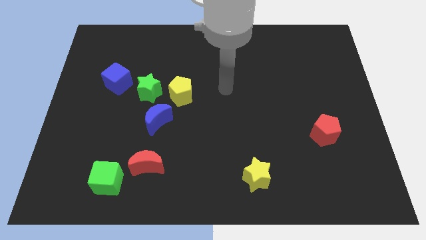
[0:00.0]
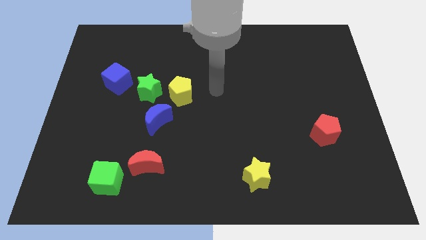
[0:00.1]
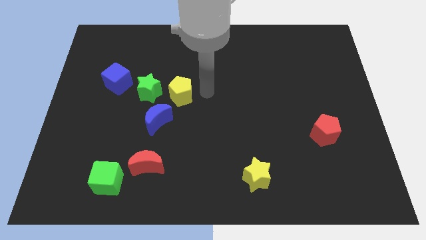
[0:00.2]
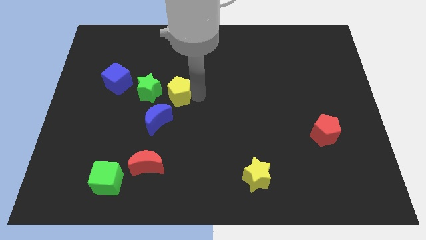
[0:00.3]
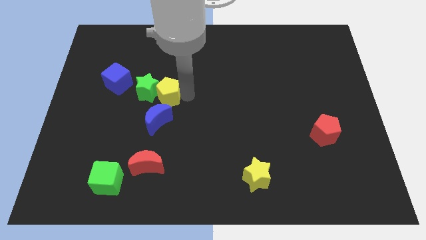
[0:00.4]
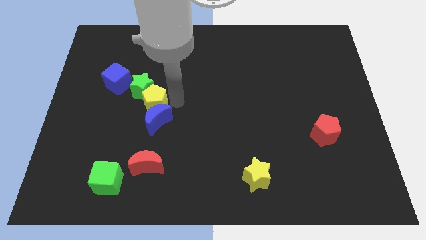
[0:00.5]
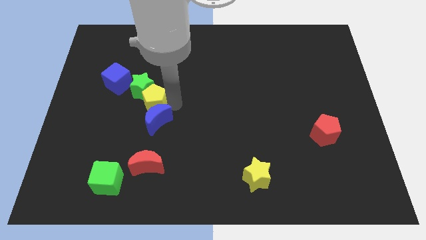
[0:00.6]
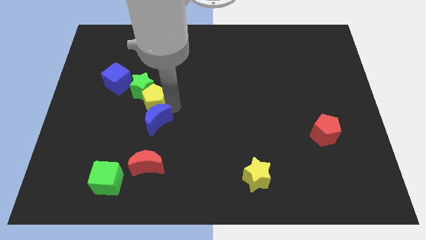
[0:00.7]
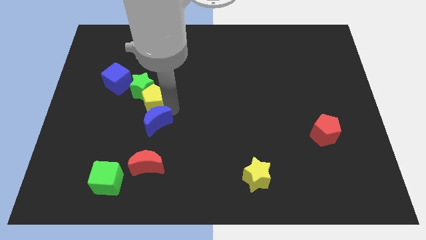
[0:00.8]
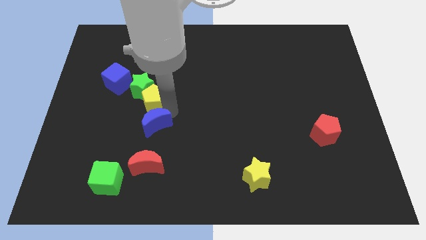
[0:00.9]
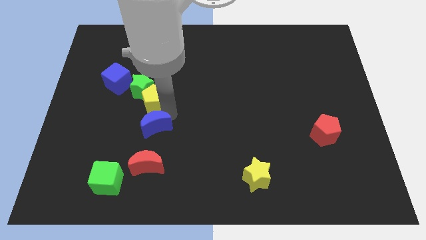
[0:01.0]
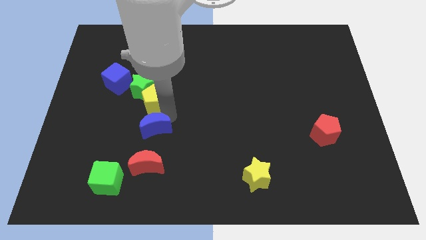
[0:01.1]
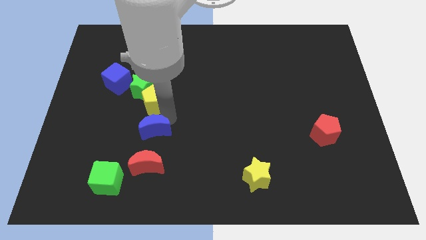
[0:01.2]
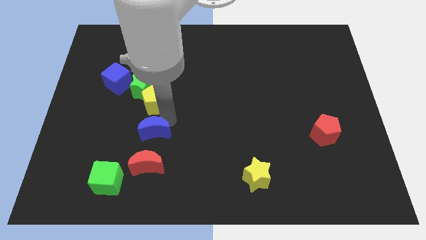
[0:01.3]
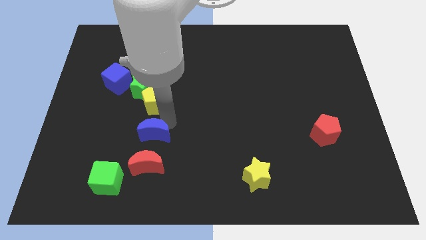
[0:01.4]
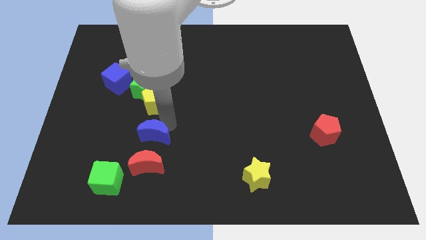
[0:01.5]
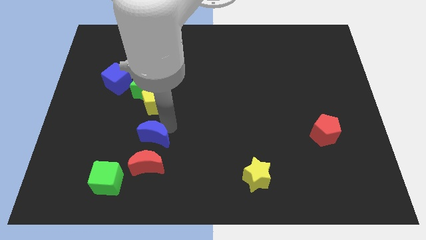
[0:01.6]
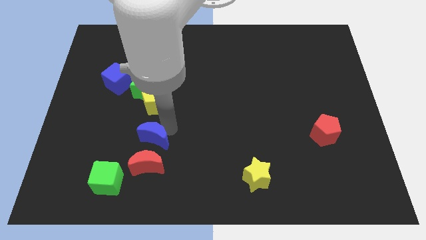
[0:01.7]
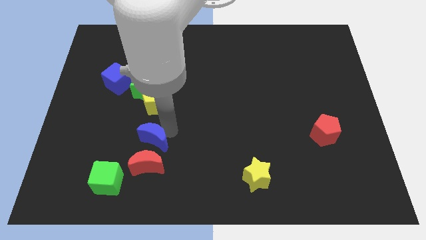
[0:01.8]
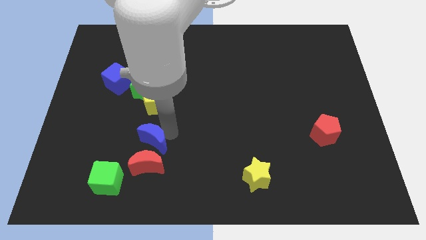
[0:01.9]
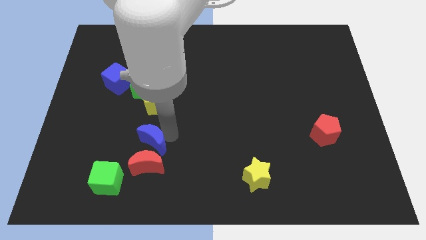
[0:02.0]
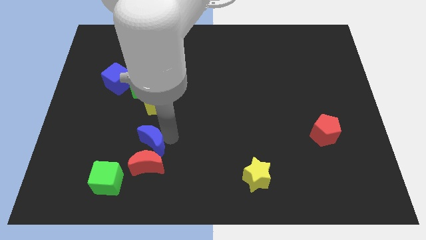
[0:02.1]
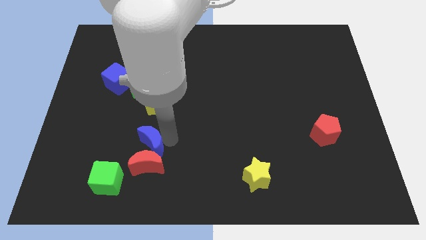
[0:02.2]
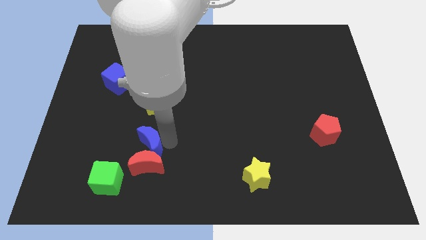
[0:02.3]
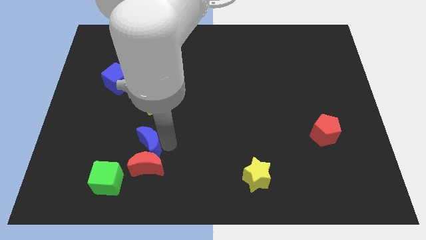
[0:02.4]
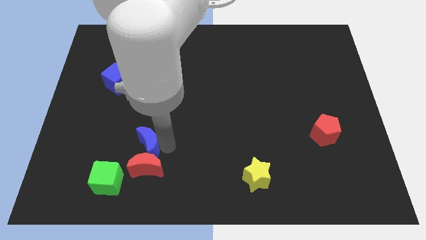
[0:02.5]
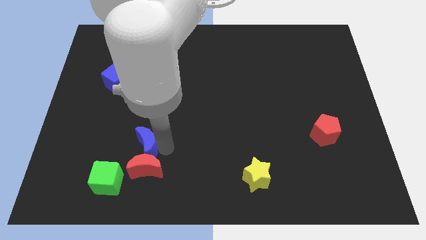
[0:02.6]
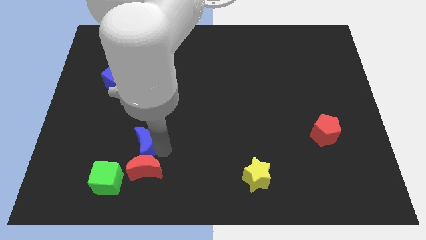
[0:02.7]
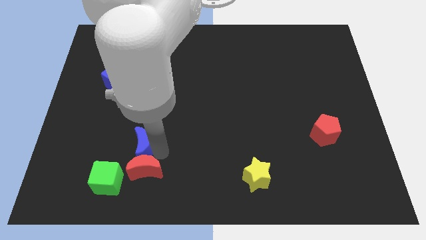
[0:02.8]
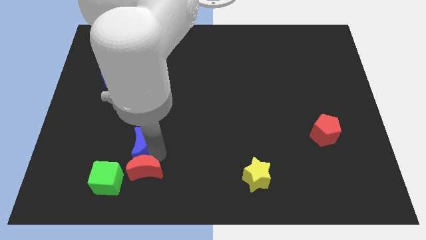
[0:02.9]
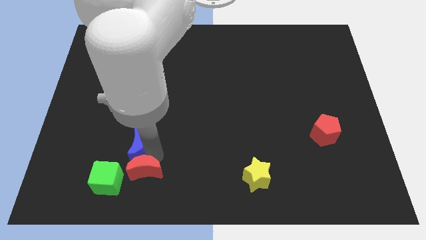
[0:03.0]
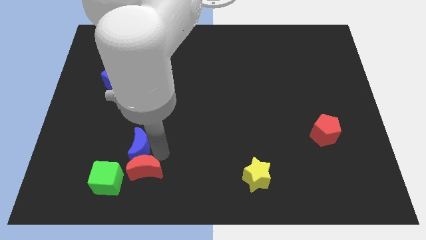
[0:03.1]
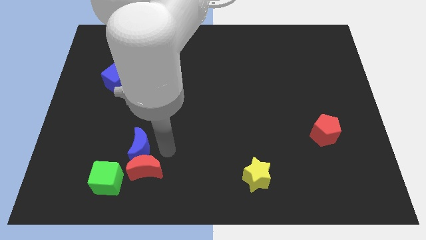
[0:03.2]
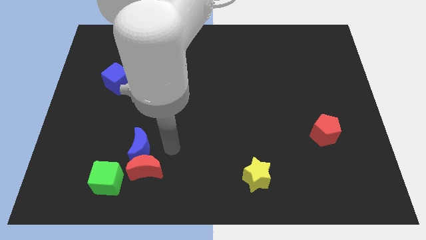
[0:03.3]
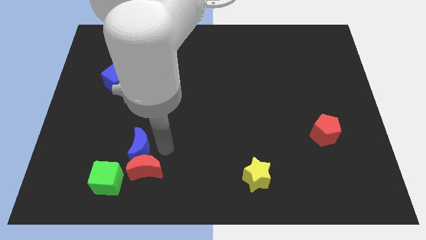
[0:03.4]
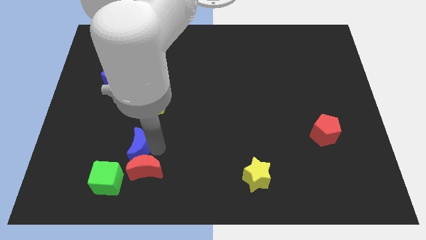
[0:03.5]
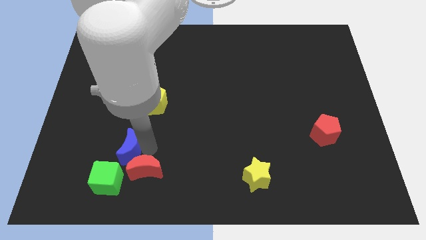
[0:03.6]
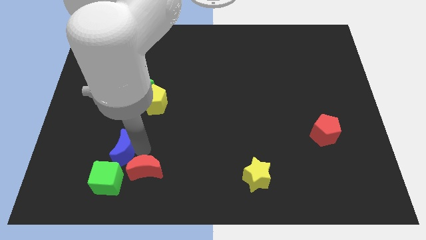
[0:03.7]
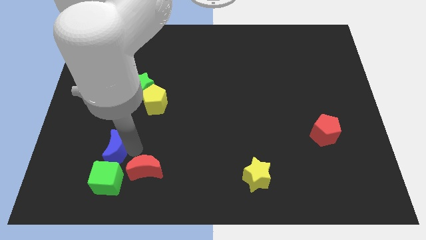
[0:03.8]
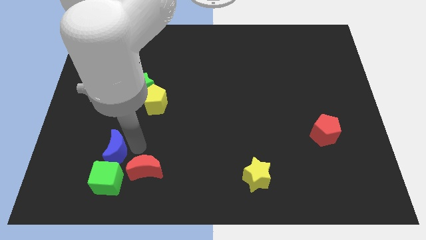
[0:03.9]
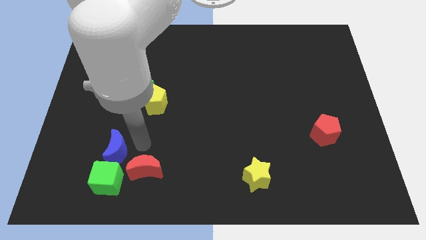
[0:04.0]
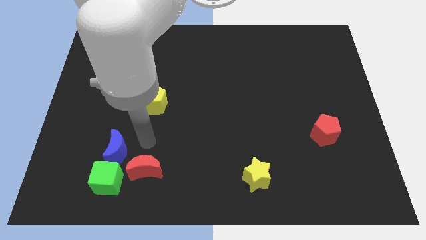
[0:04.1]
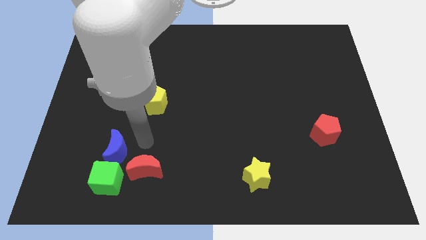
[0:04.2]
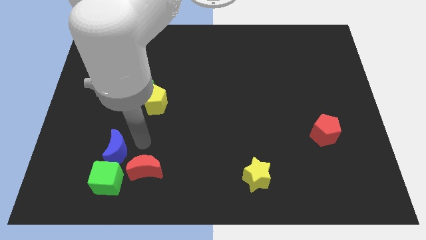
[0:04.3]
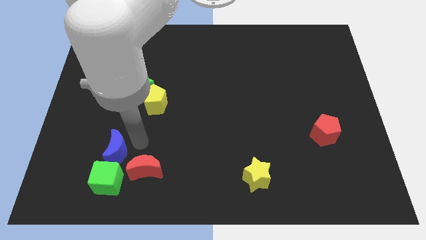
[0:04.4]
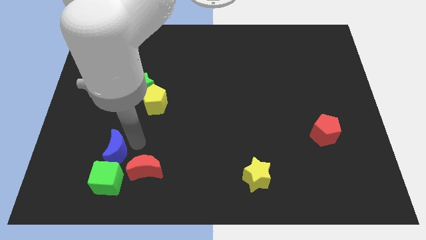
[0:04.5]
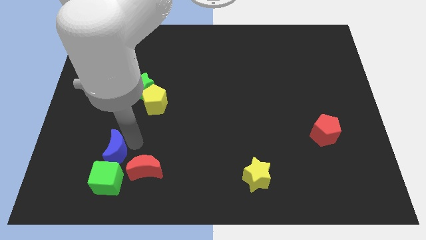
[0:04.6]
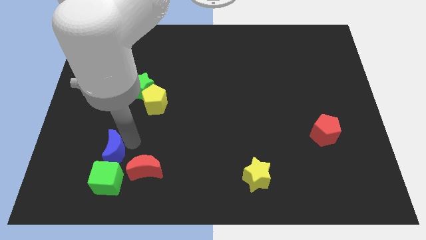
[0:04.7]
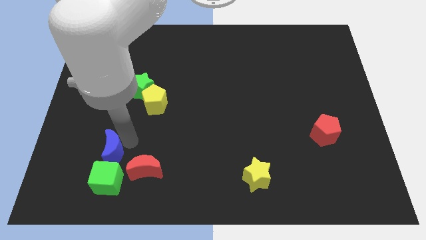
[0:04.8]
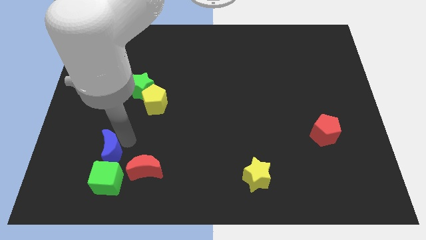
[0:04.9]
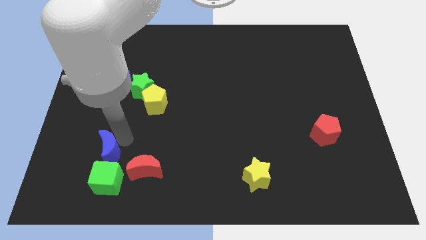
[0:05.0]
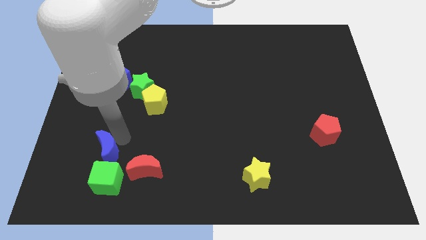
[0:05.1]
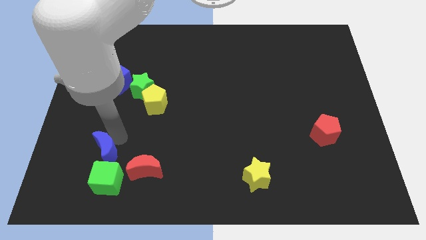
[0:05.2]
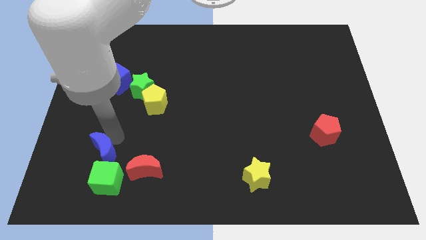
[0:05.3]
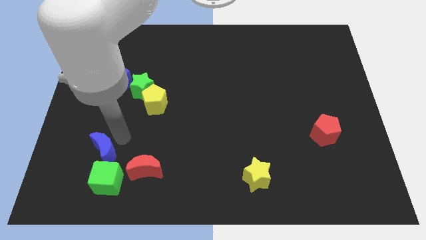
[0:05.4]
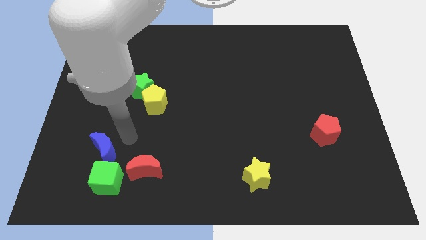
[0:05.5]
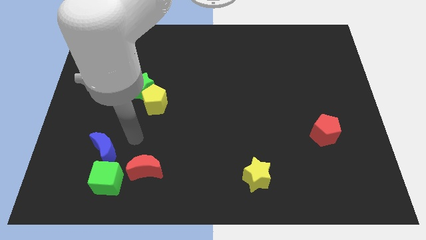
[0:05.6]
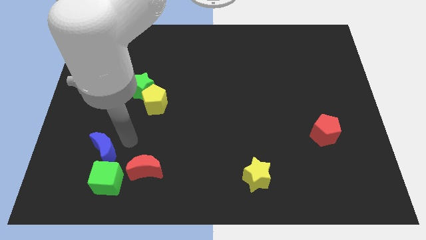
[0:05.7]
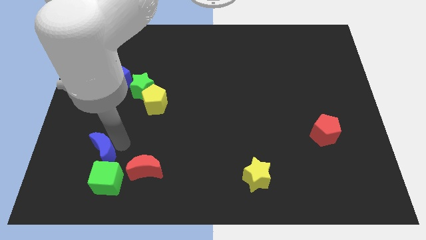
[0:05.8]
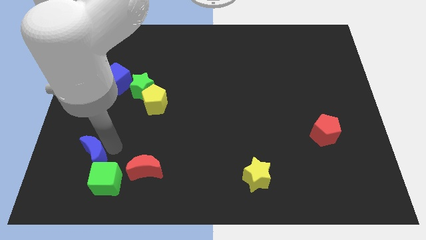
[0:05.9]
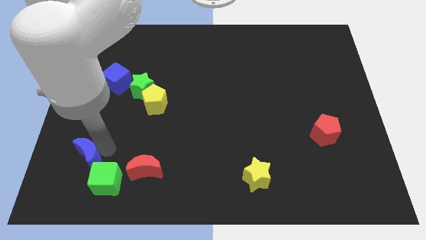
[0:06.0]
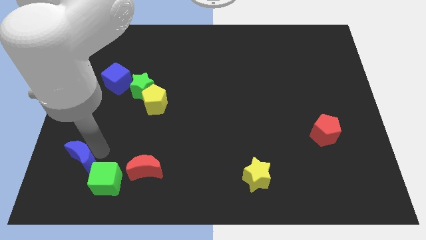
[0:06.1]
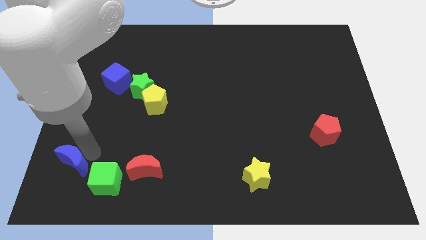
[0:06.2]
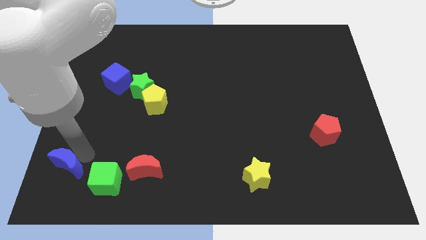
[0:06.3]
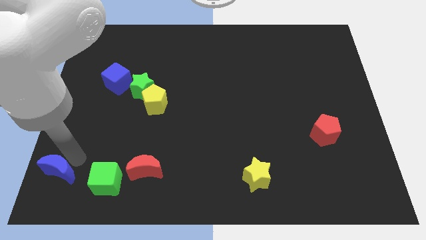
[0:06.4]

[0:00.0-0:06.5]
put the blue moon to the bottom left of the board
